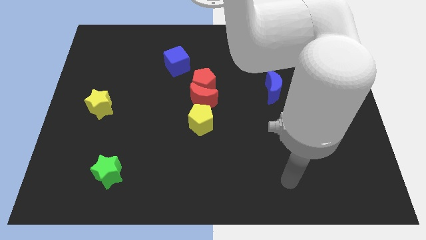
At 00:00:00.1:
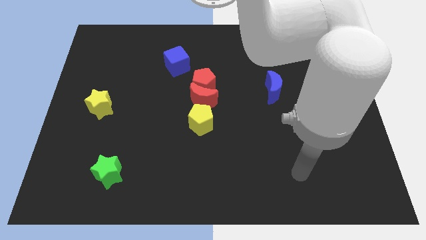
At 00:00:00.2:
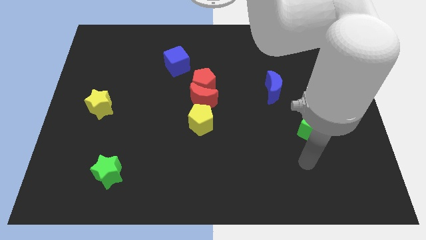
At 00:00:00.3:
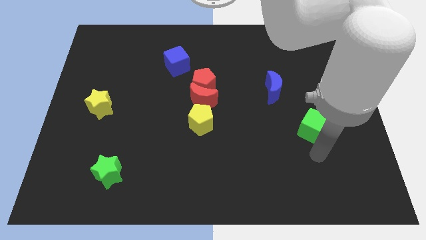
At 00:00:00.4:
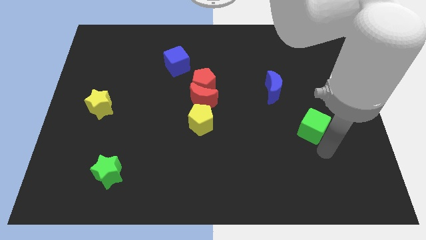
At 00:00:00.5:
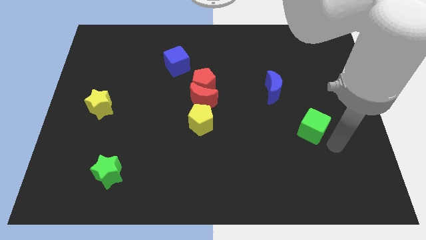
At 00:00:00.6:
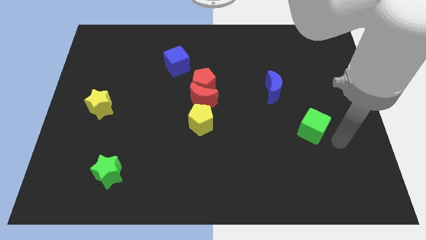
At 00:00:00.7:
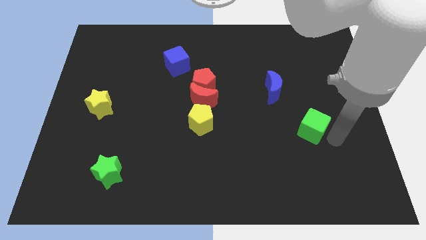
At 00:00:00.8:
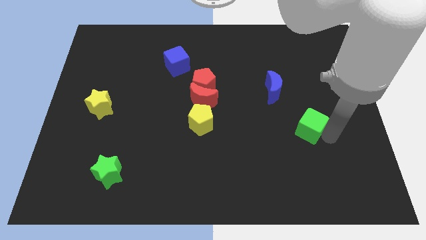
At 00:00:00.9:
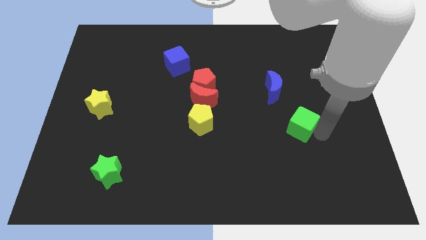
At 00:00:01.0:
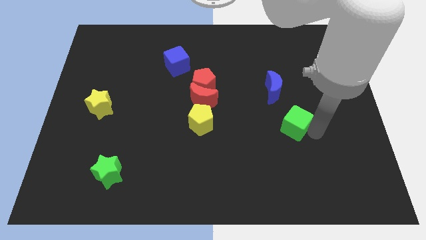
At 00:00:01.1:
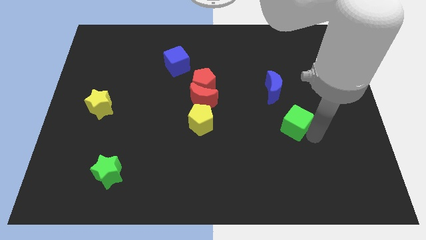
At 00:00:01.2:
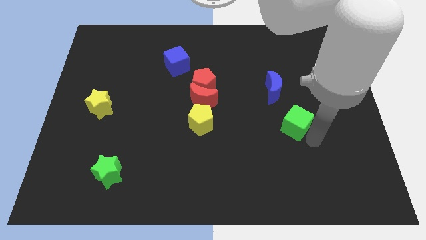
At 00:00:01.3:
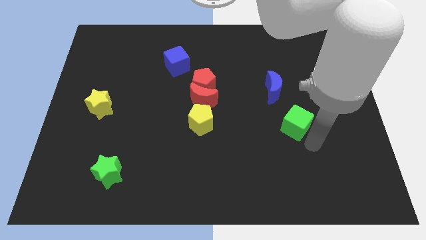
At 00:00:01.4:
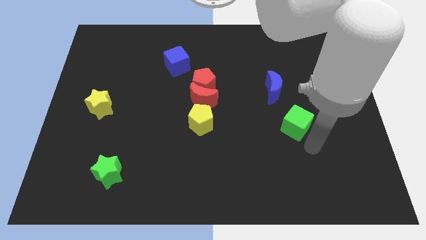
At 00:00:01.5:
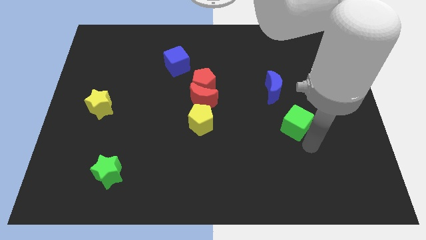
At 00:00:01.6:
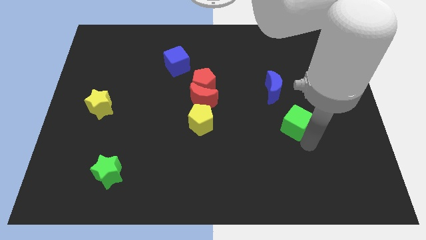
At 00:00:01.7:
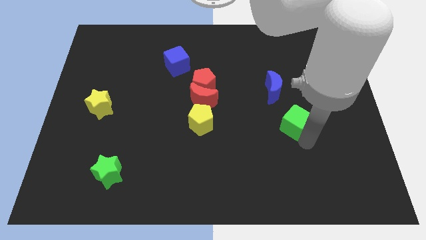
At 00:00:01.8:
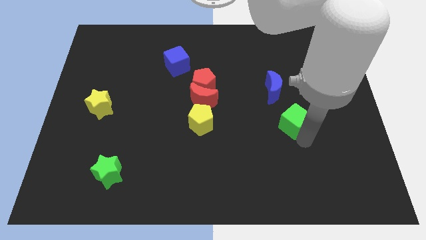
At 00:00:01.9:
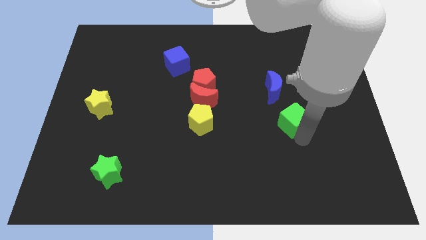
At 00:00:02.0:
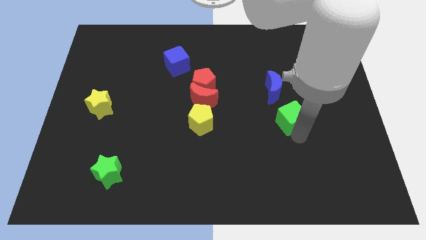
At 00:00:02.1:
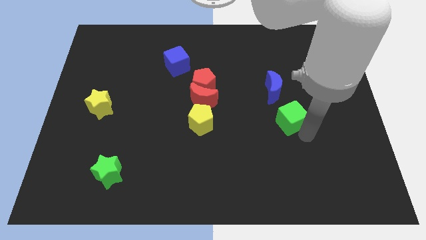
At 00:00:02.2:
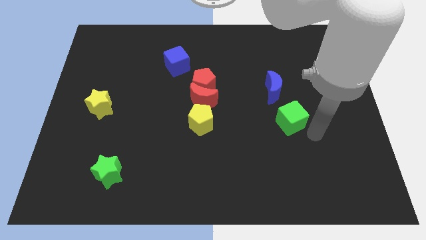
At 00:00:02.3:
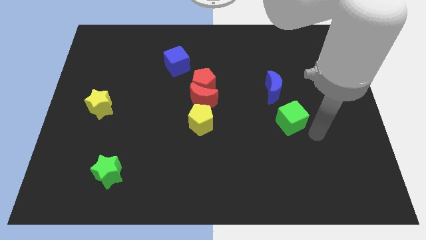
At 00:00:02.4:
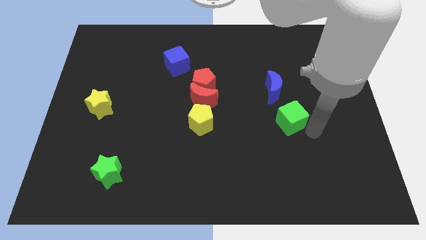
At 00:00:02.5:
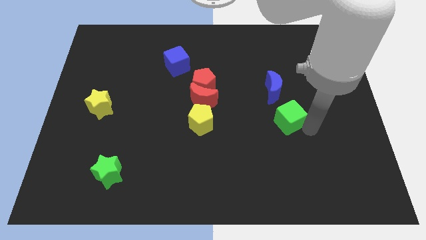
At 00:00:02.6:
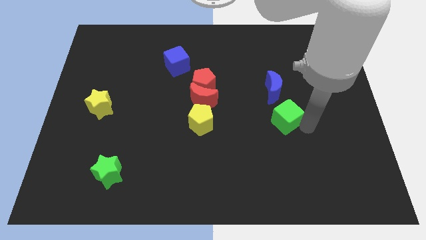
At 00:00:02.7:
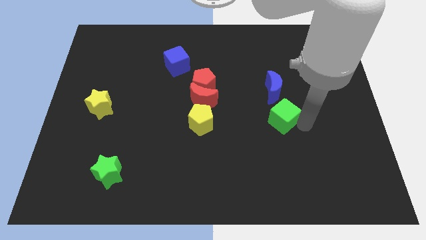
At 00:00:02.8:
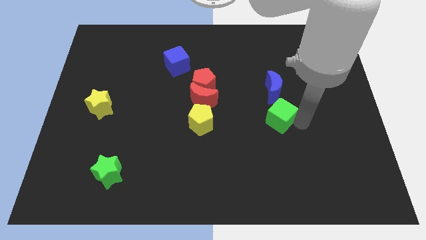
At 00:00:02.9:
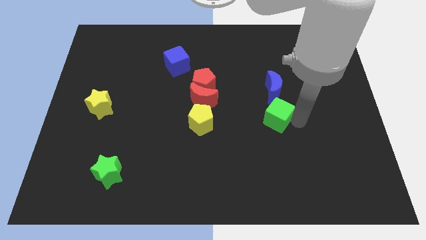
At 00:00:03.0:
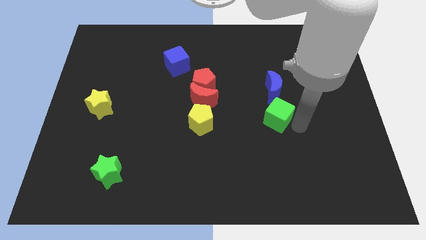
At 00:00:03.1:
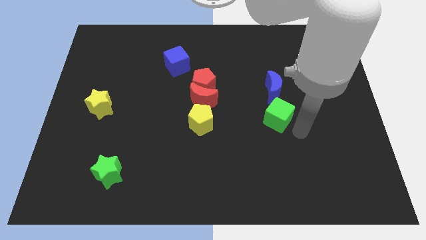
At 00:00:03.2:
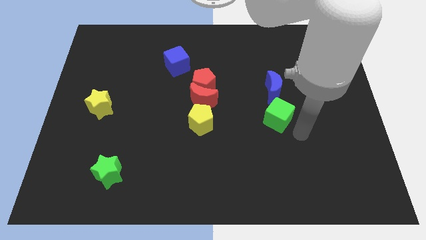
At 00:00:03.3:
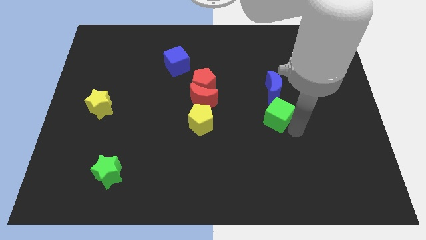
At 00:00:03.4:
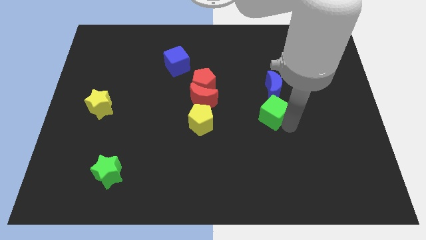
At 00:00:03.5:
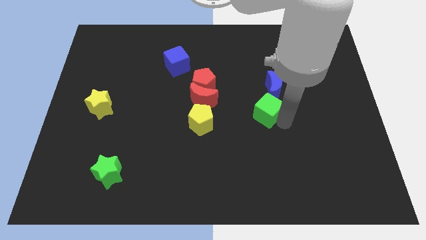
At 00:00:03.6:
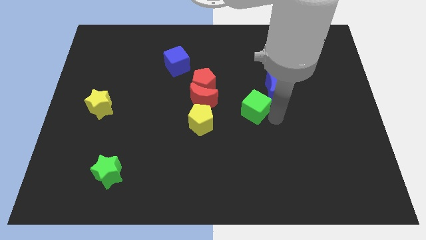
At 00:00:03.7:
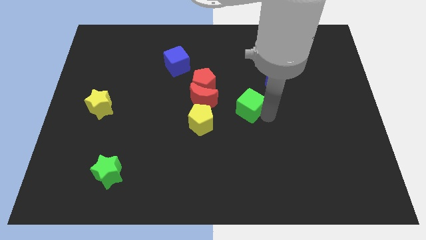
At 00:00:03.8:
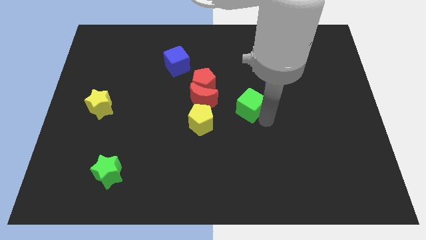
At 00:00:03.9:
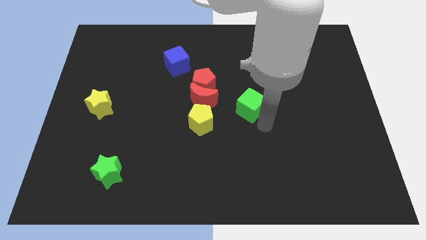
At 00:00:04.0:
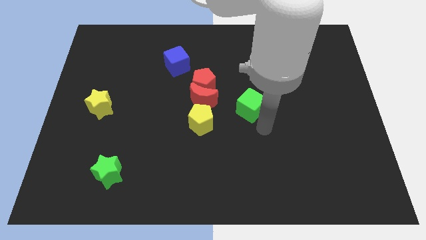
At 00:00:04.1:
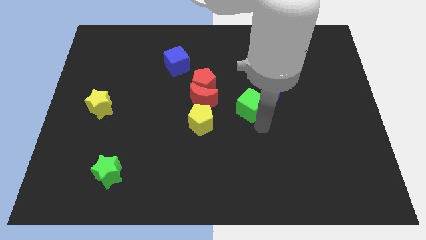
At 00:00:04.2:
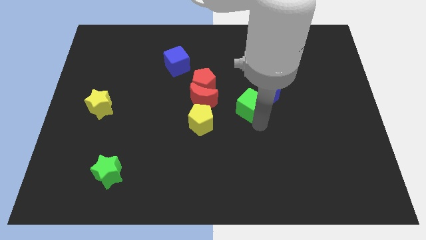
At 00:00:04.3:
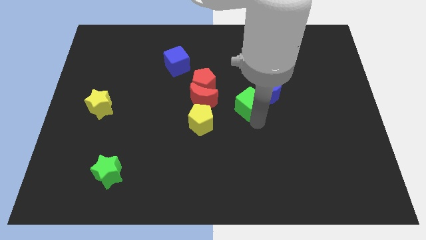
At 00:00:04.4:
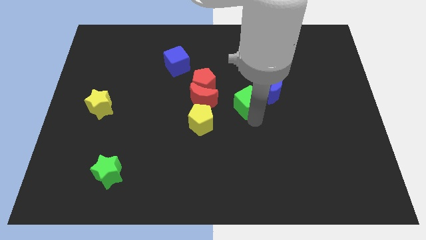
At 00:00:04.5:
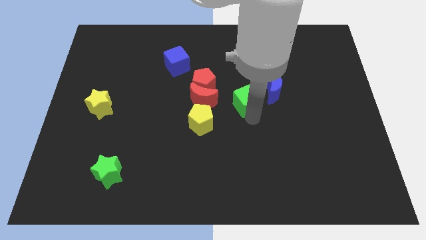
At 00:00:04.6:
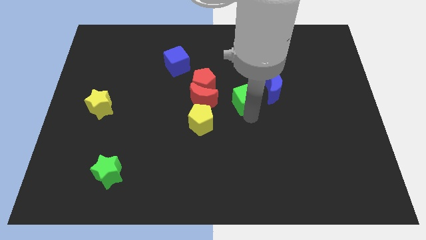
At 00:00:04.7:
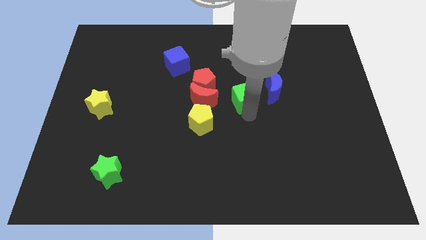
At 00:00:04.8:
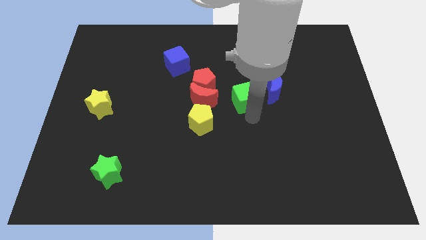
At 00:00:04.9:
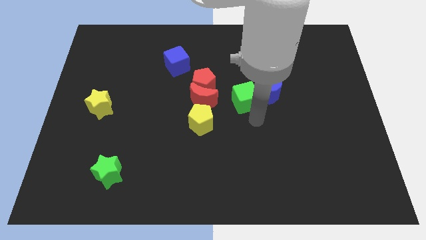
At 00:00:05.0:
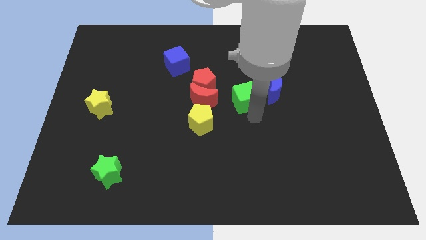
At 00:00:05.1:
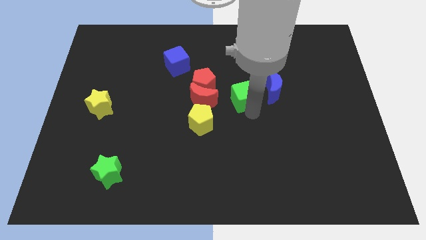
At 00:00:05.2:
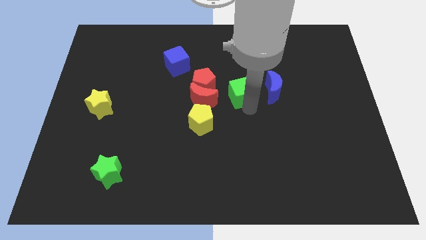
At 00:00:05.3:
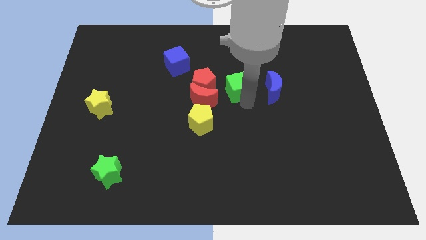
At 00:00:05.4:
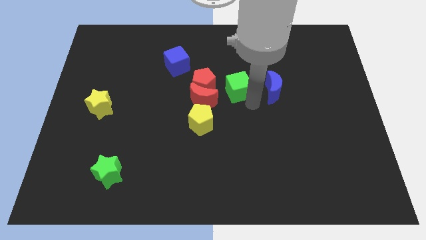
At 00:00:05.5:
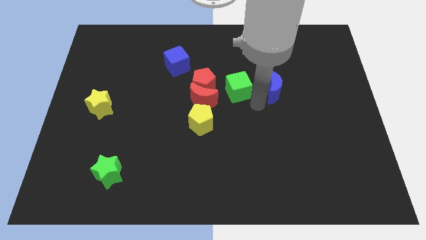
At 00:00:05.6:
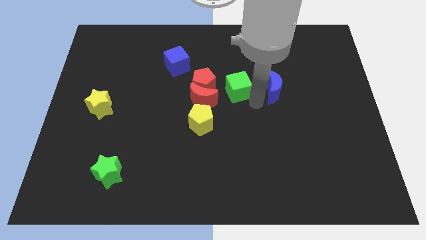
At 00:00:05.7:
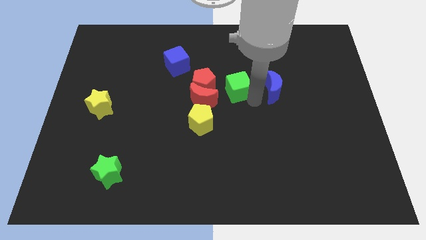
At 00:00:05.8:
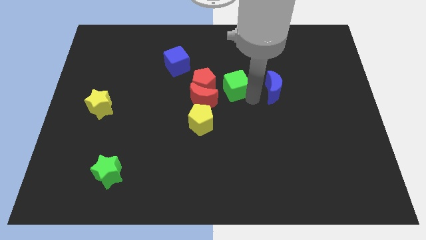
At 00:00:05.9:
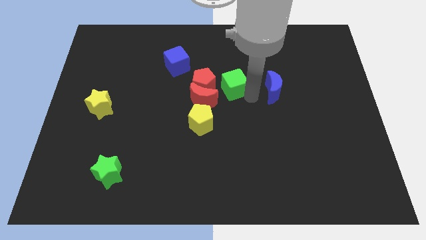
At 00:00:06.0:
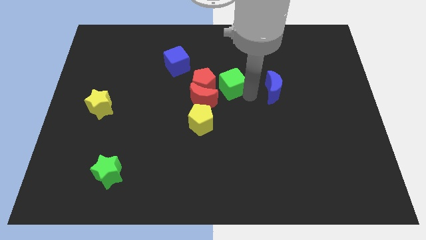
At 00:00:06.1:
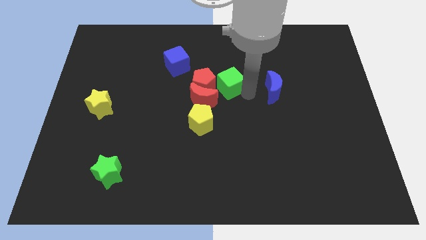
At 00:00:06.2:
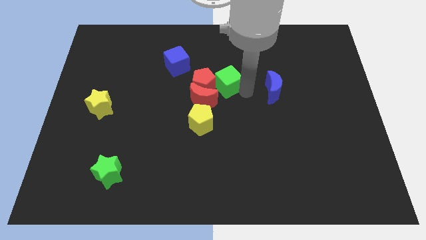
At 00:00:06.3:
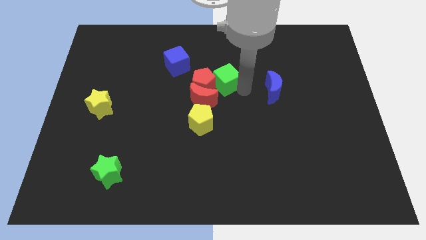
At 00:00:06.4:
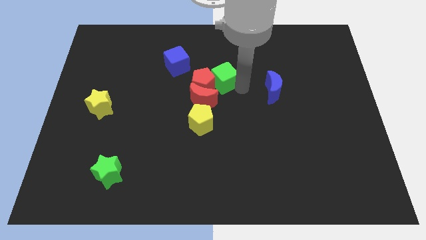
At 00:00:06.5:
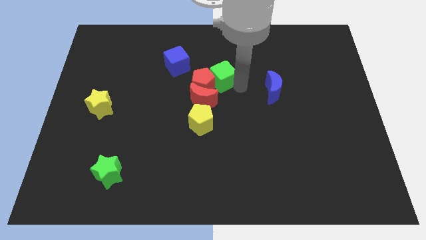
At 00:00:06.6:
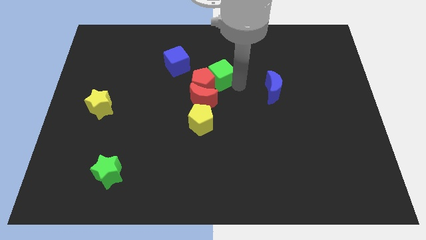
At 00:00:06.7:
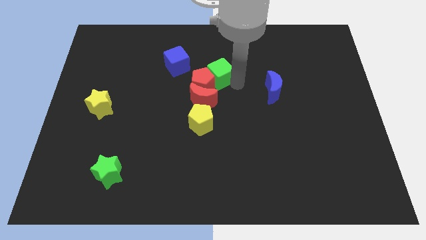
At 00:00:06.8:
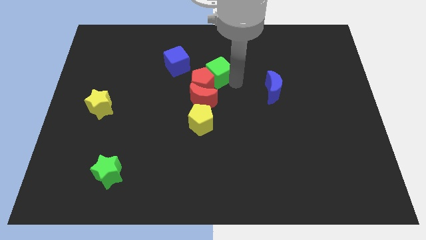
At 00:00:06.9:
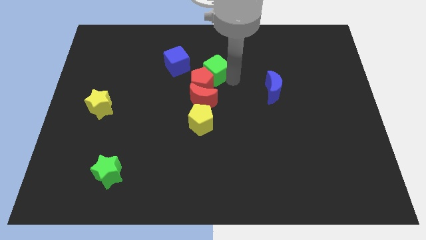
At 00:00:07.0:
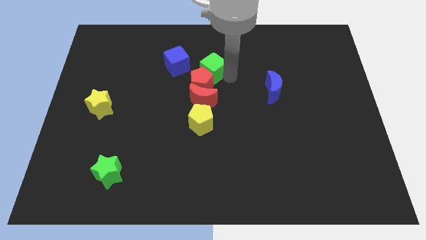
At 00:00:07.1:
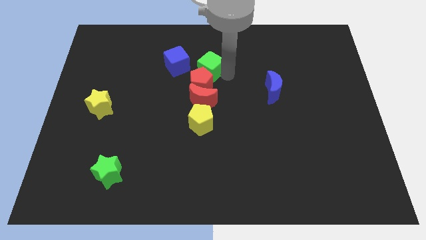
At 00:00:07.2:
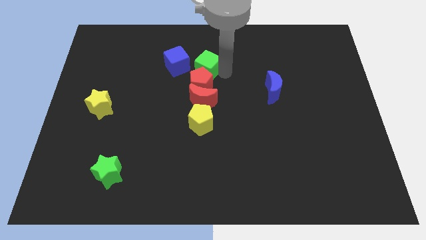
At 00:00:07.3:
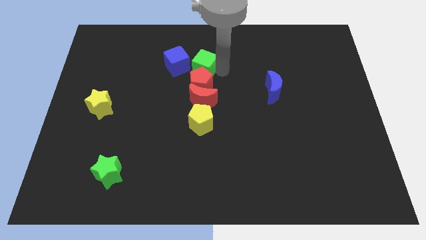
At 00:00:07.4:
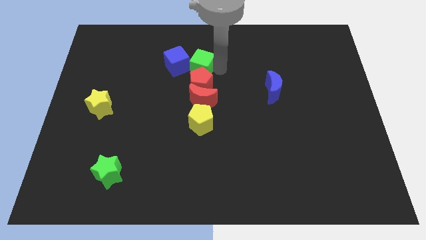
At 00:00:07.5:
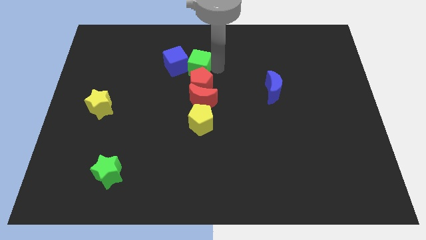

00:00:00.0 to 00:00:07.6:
push the green cube towards the blue cube
